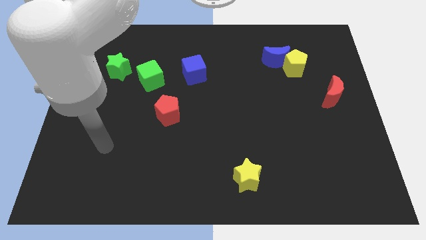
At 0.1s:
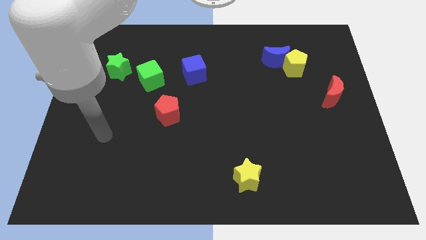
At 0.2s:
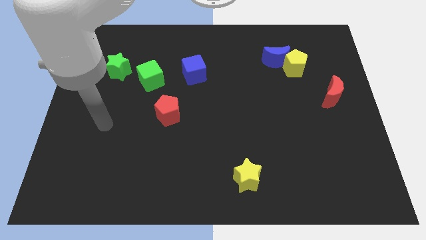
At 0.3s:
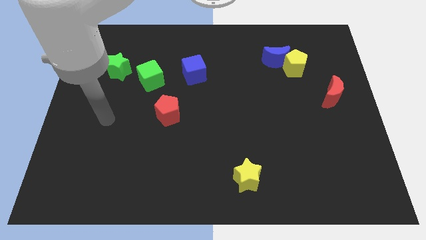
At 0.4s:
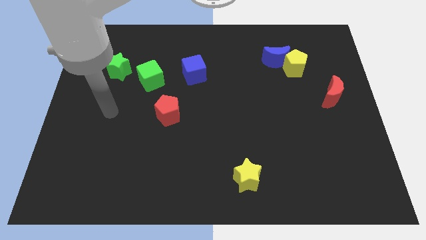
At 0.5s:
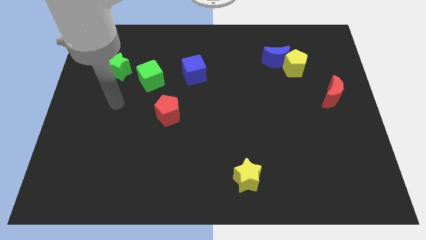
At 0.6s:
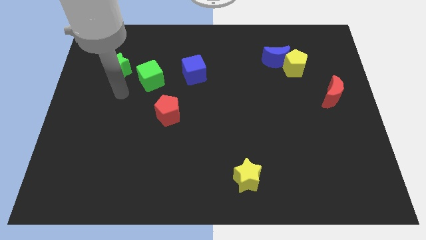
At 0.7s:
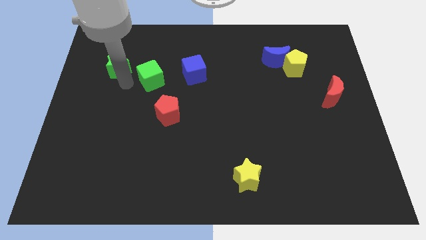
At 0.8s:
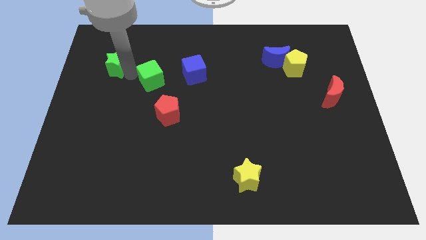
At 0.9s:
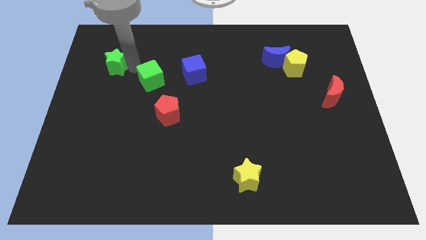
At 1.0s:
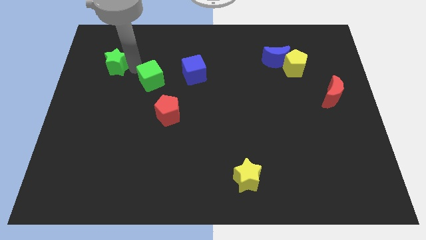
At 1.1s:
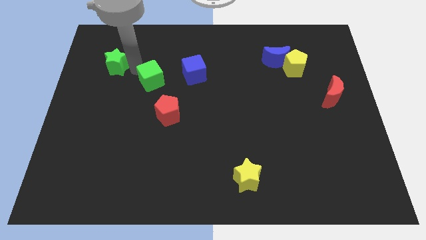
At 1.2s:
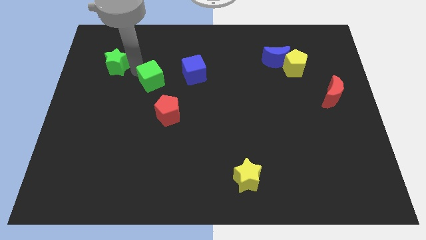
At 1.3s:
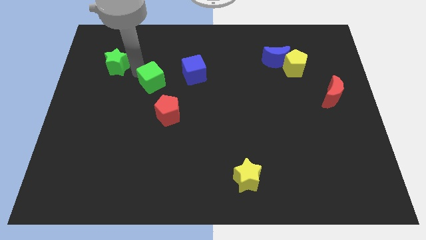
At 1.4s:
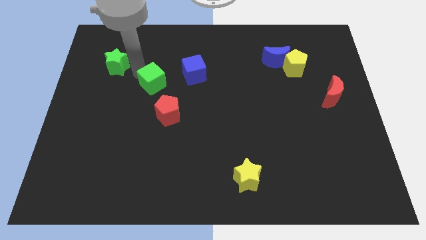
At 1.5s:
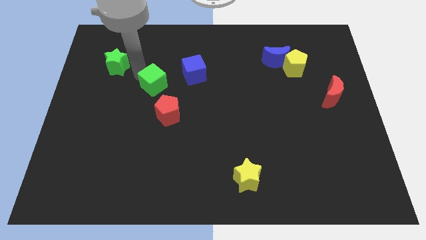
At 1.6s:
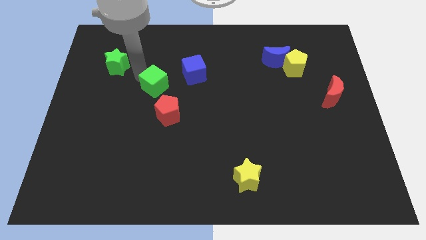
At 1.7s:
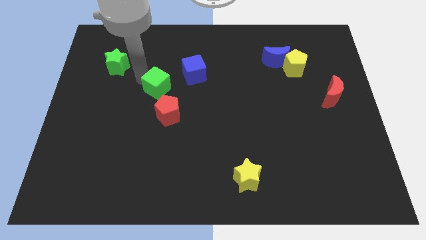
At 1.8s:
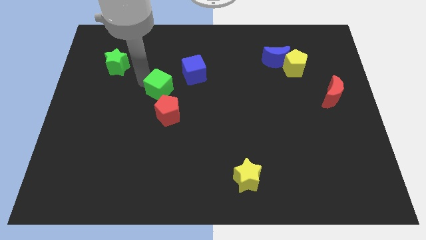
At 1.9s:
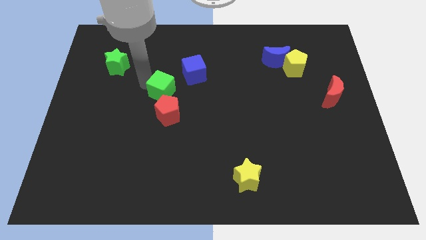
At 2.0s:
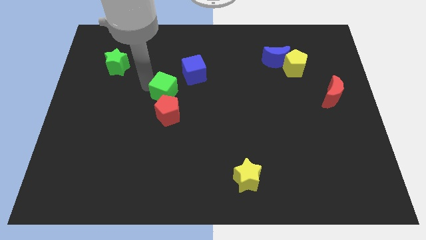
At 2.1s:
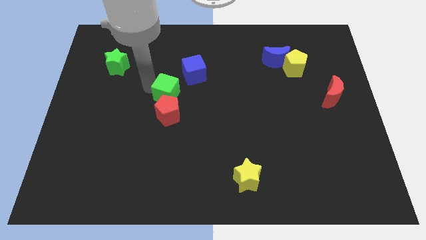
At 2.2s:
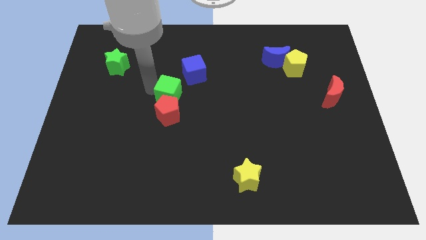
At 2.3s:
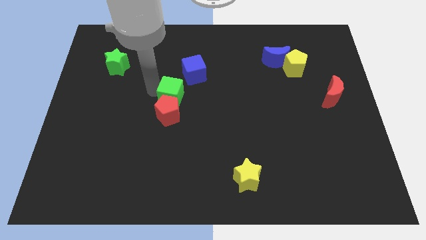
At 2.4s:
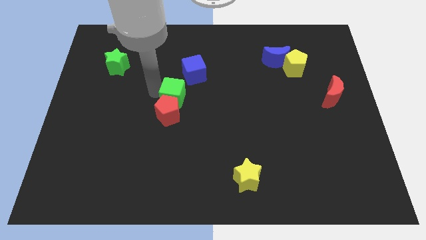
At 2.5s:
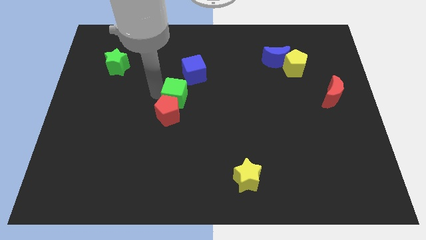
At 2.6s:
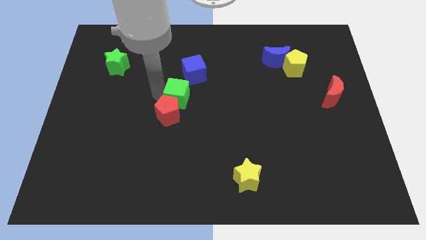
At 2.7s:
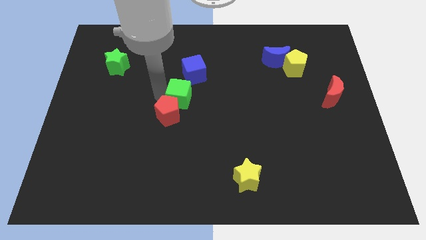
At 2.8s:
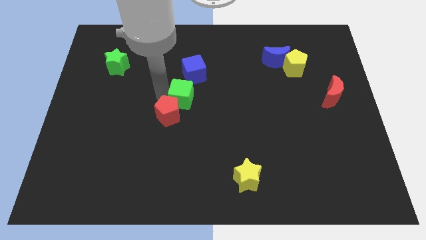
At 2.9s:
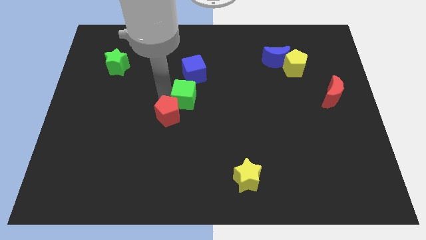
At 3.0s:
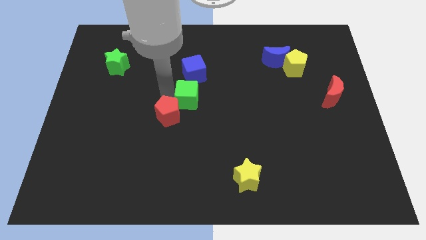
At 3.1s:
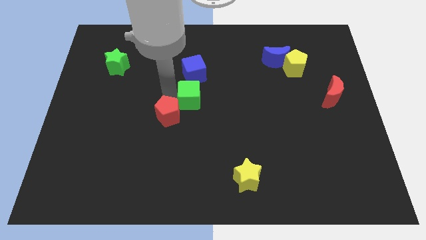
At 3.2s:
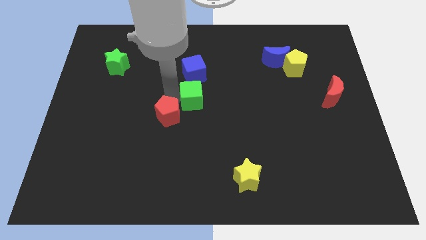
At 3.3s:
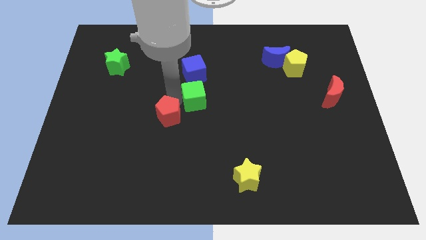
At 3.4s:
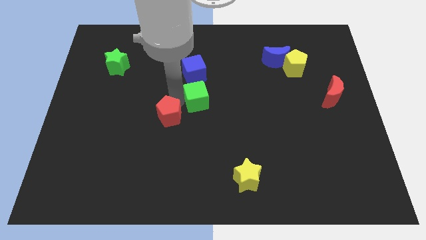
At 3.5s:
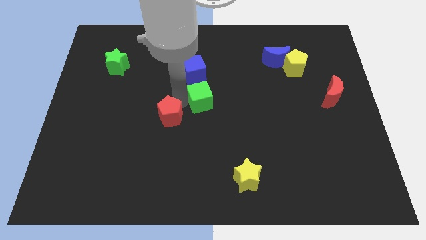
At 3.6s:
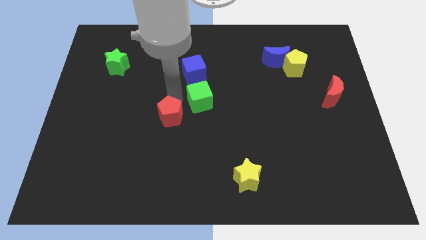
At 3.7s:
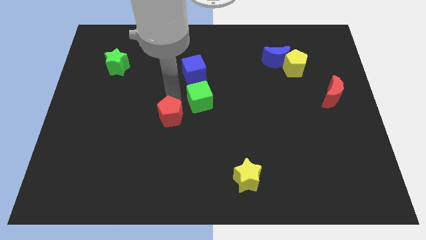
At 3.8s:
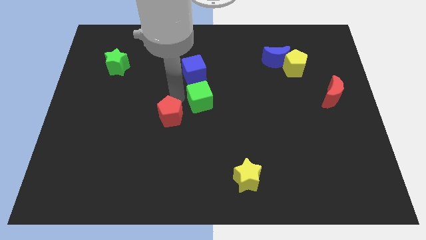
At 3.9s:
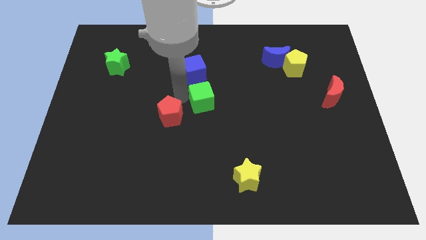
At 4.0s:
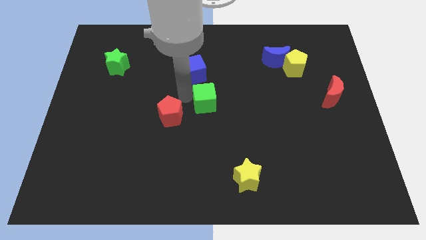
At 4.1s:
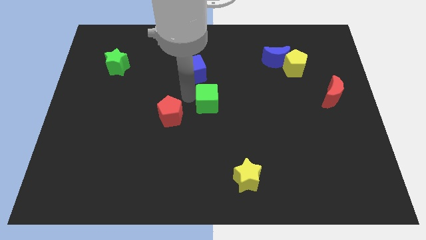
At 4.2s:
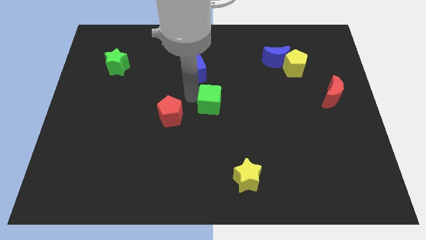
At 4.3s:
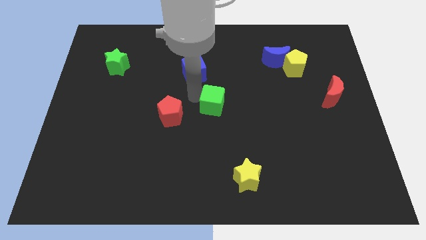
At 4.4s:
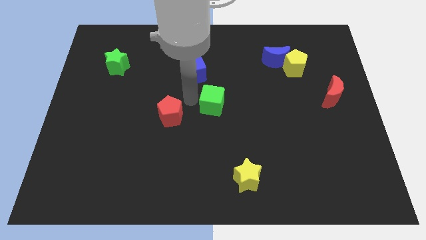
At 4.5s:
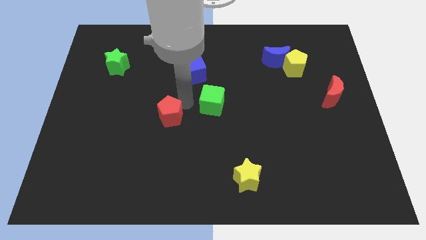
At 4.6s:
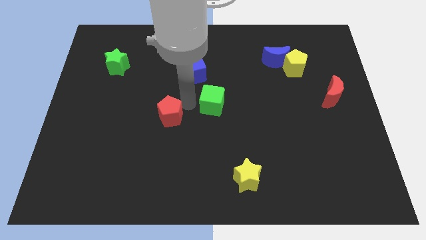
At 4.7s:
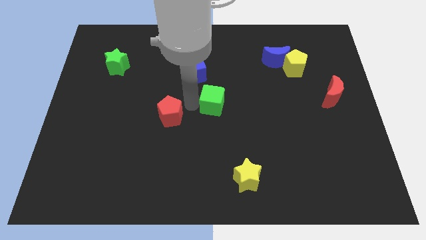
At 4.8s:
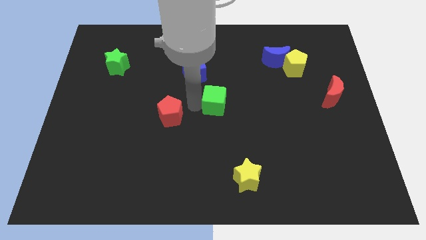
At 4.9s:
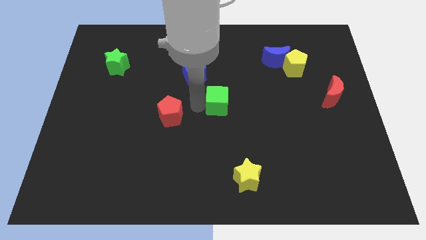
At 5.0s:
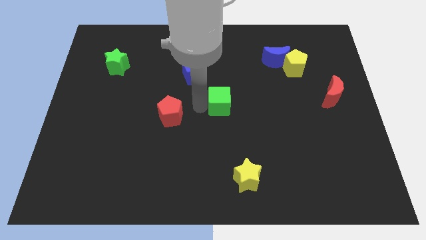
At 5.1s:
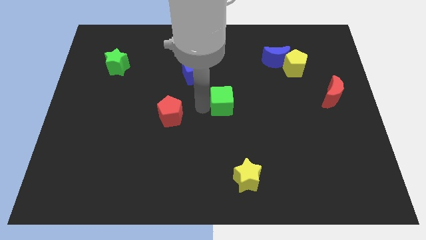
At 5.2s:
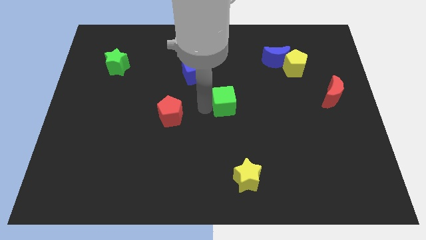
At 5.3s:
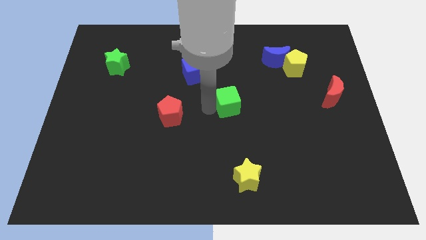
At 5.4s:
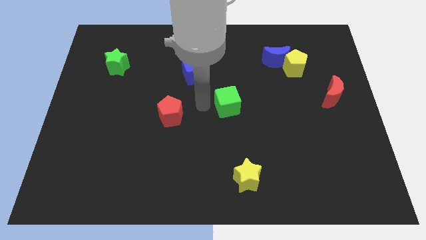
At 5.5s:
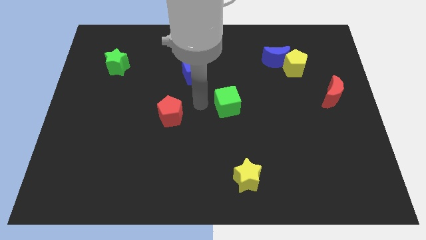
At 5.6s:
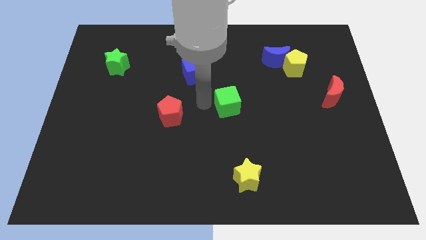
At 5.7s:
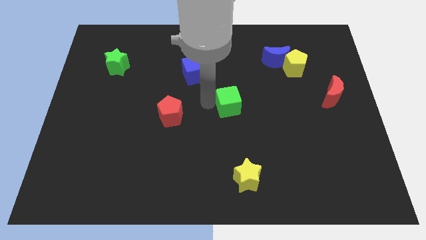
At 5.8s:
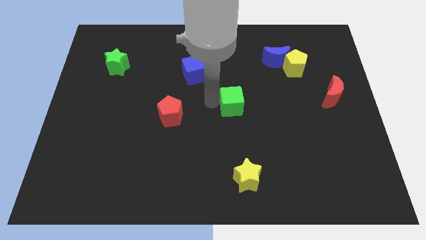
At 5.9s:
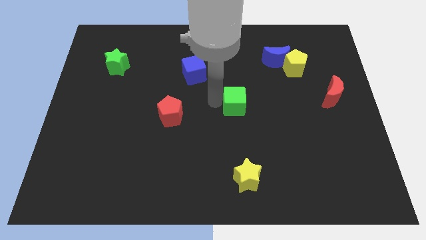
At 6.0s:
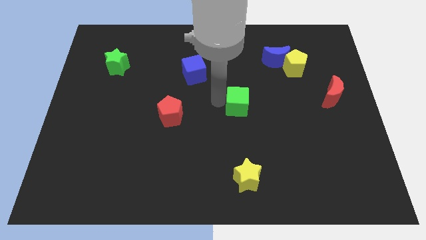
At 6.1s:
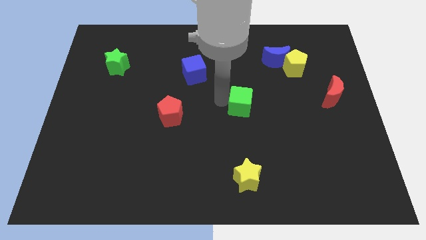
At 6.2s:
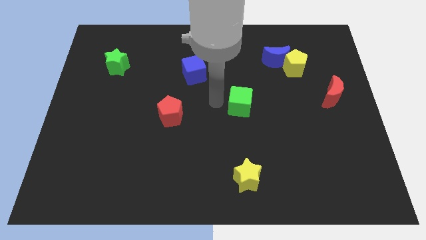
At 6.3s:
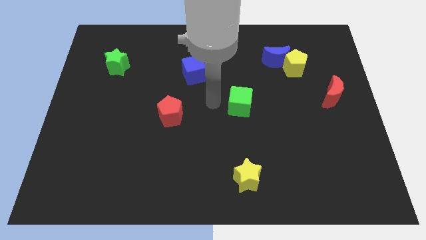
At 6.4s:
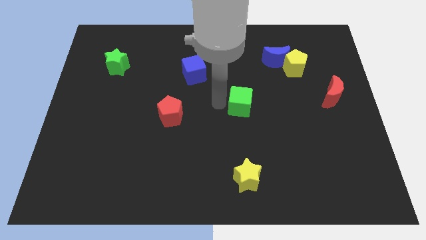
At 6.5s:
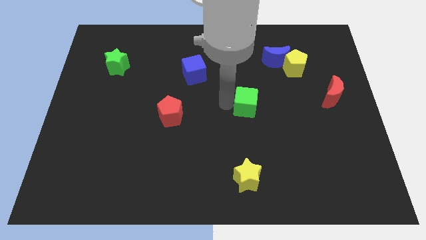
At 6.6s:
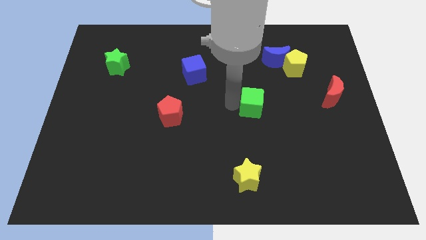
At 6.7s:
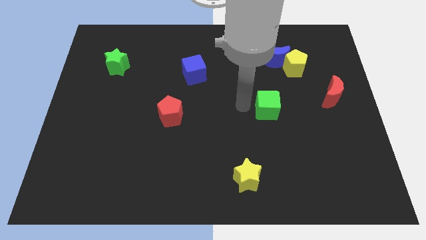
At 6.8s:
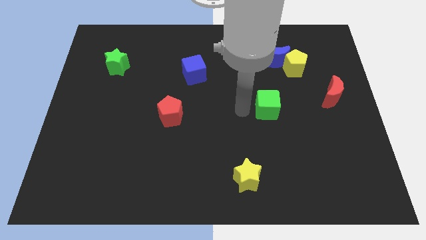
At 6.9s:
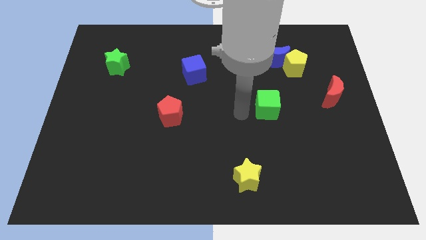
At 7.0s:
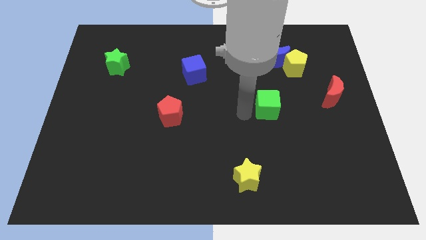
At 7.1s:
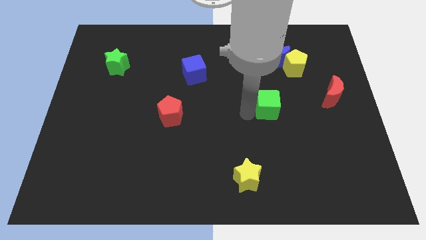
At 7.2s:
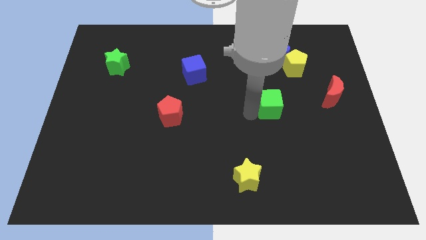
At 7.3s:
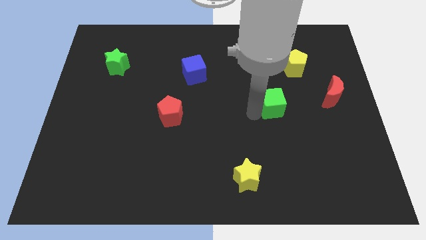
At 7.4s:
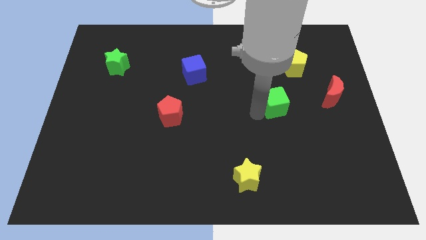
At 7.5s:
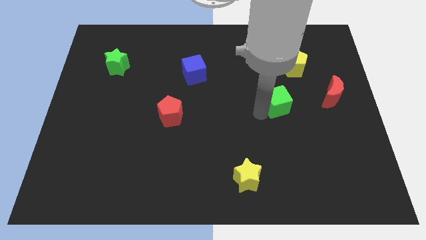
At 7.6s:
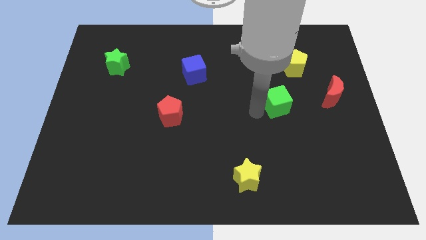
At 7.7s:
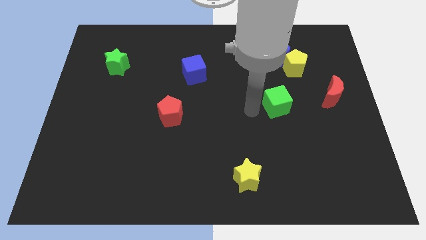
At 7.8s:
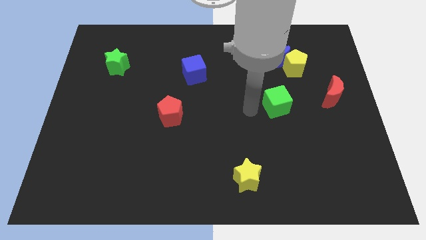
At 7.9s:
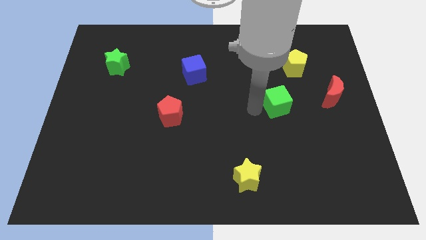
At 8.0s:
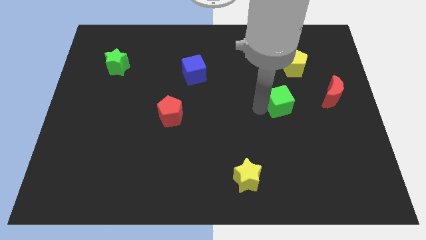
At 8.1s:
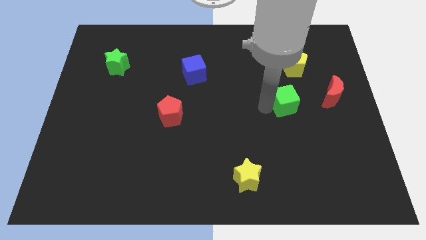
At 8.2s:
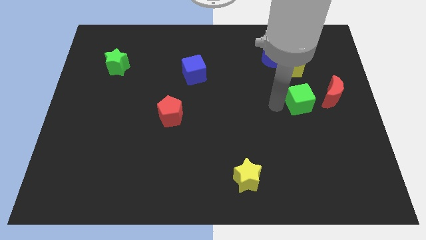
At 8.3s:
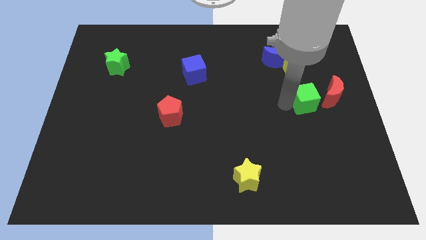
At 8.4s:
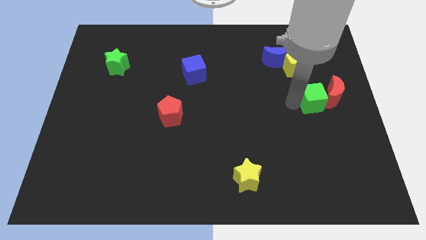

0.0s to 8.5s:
slide the green cube close to the red moon

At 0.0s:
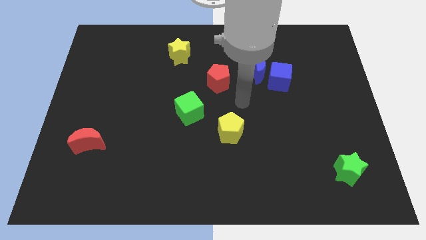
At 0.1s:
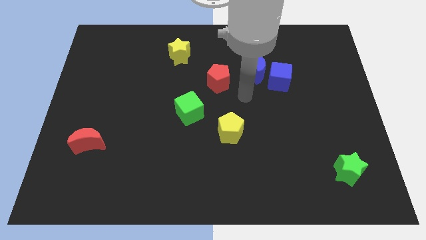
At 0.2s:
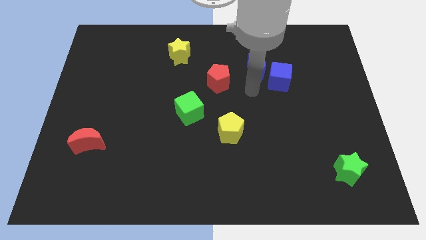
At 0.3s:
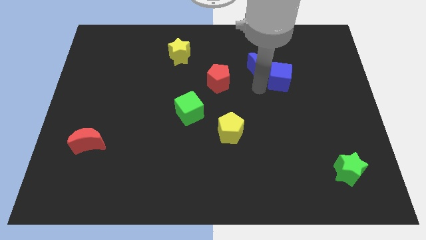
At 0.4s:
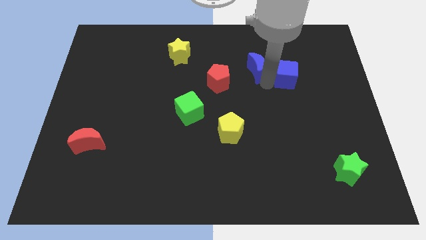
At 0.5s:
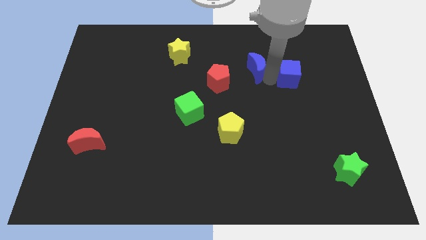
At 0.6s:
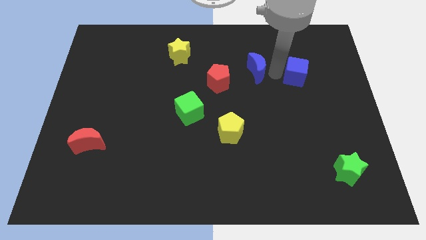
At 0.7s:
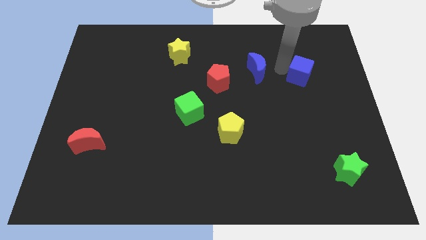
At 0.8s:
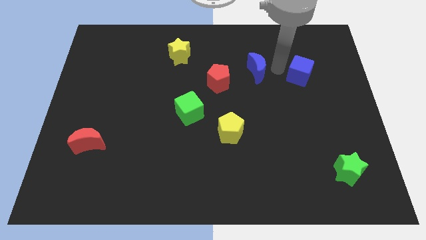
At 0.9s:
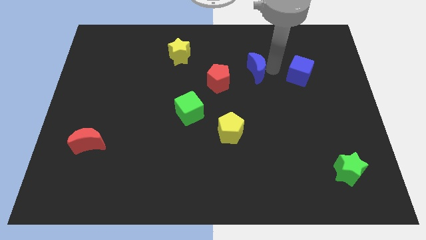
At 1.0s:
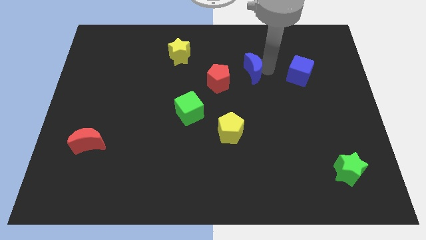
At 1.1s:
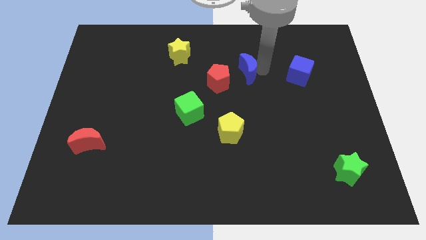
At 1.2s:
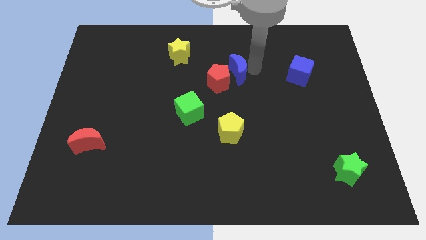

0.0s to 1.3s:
push the blue moon towards the red pentagon
